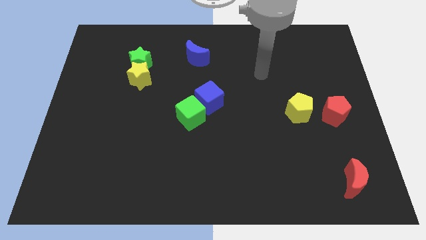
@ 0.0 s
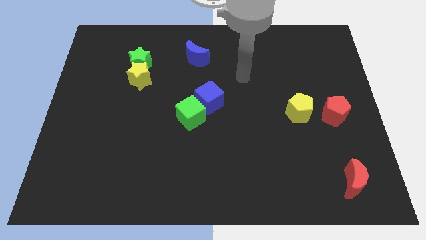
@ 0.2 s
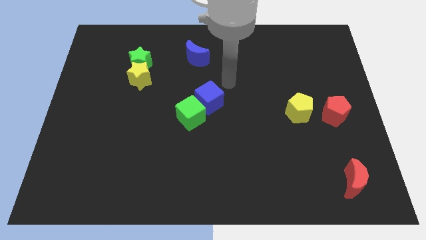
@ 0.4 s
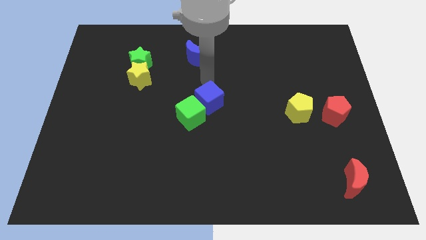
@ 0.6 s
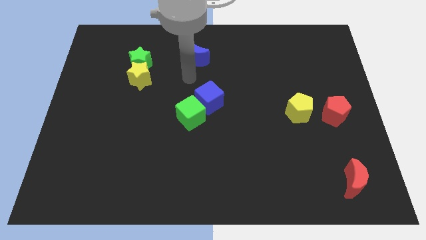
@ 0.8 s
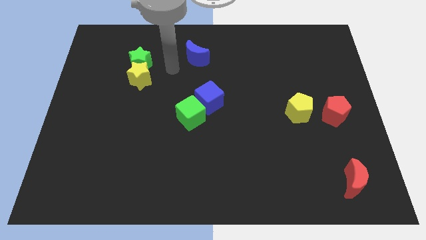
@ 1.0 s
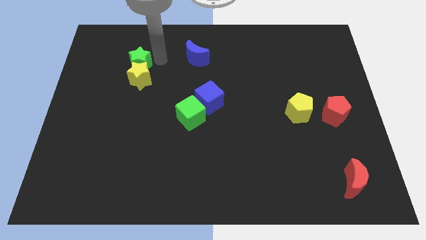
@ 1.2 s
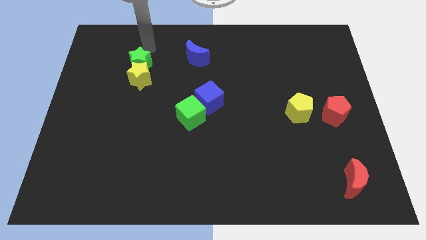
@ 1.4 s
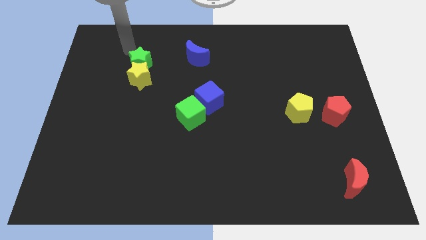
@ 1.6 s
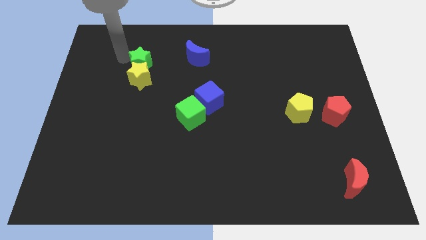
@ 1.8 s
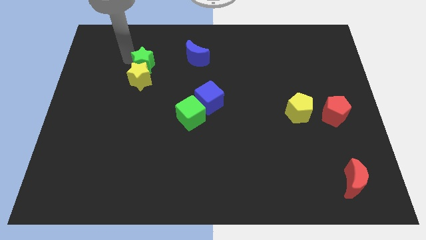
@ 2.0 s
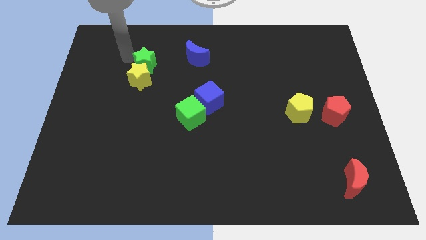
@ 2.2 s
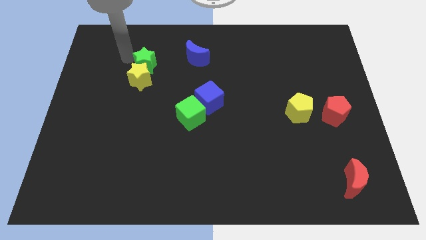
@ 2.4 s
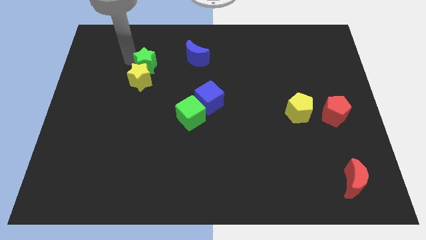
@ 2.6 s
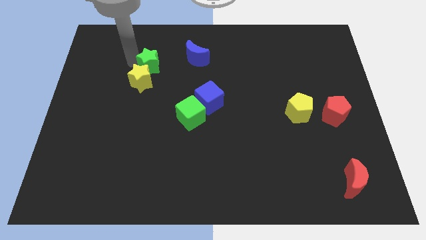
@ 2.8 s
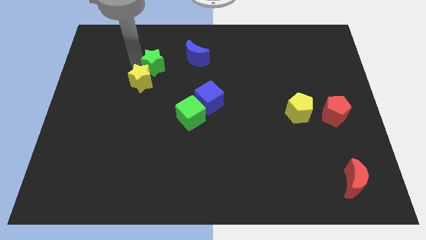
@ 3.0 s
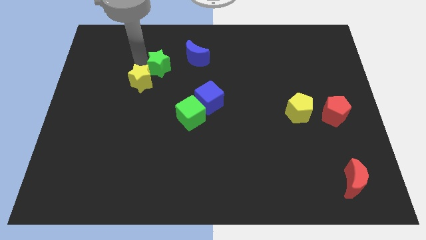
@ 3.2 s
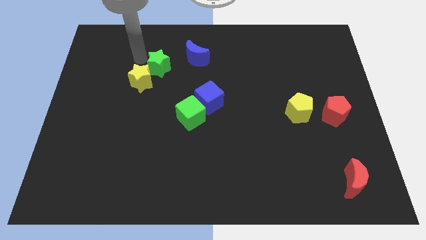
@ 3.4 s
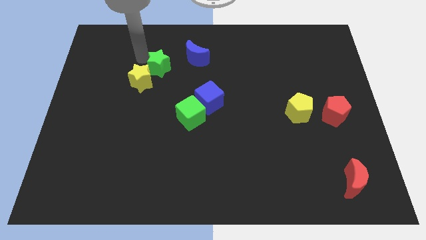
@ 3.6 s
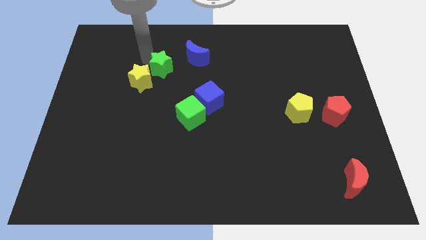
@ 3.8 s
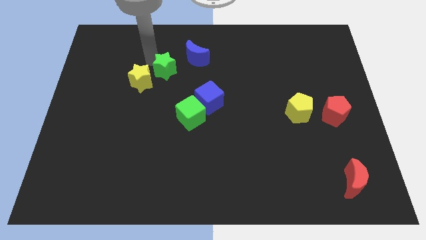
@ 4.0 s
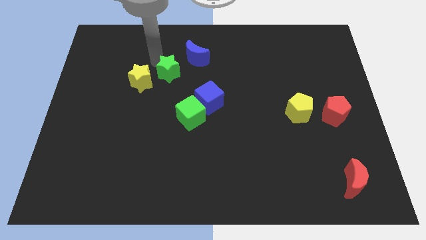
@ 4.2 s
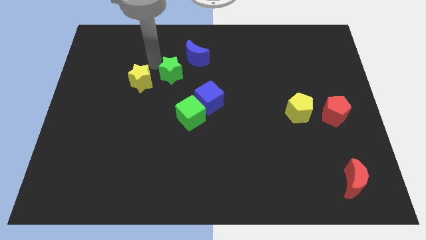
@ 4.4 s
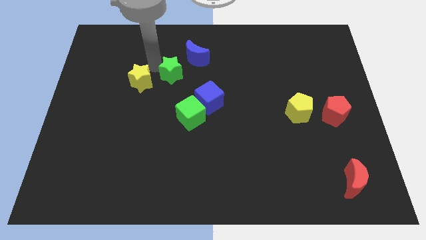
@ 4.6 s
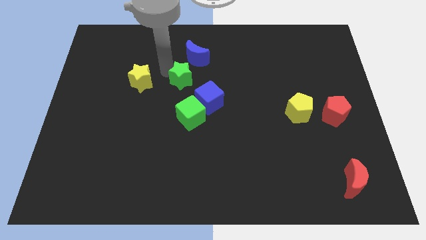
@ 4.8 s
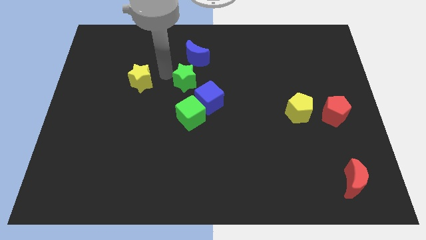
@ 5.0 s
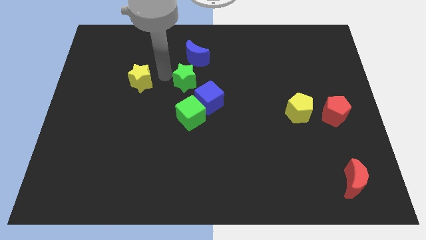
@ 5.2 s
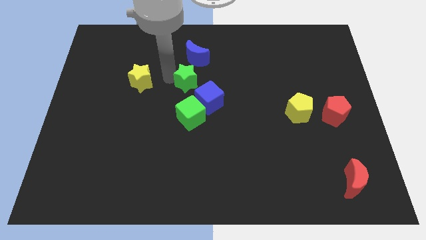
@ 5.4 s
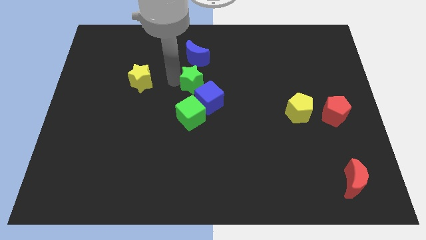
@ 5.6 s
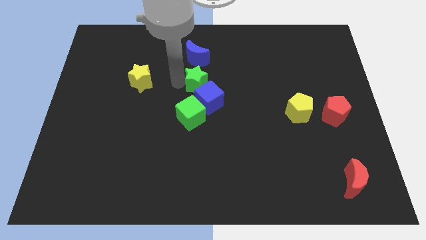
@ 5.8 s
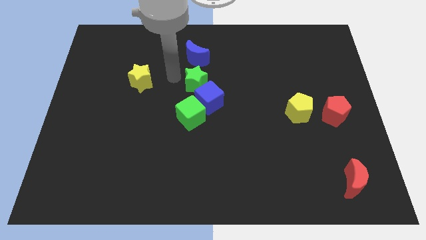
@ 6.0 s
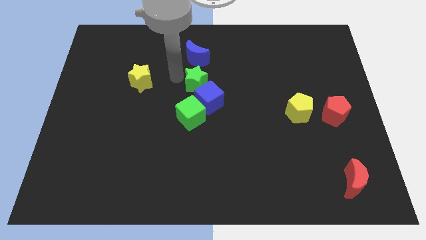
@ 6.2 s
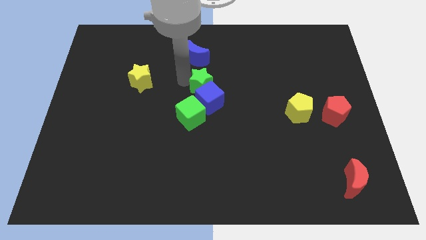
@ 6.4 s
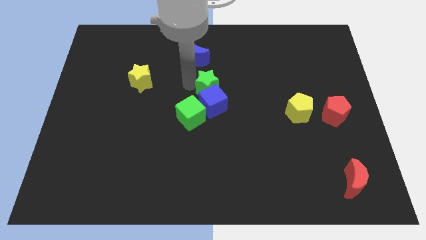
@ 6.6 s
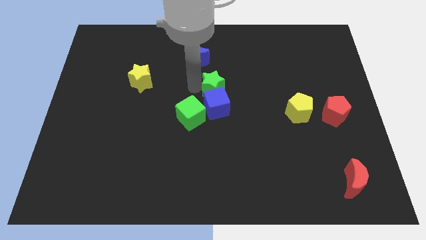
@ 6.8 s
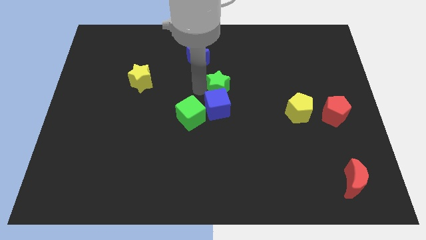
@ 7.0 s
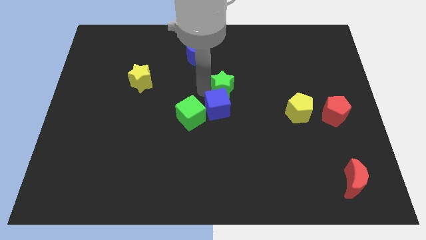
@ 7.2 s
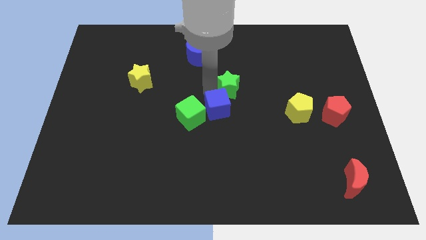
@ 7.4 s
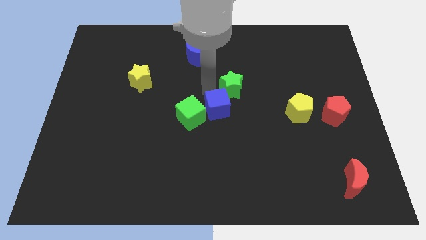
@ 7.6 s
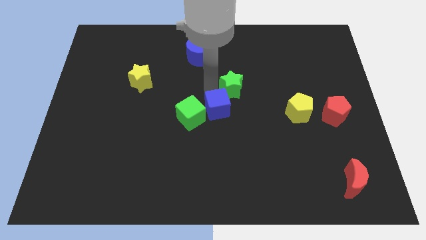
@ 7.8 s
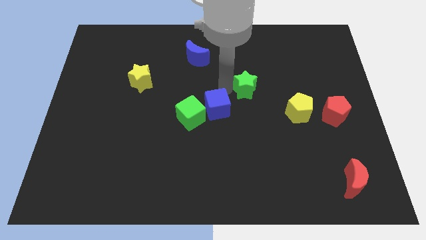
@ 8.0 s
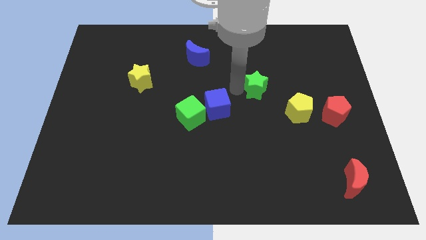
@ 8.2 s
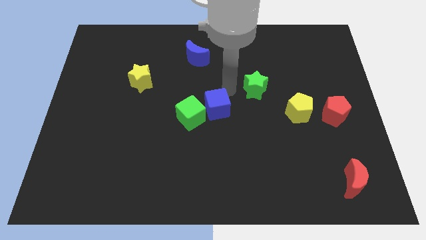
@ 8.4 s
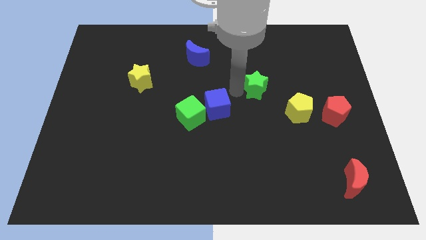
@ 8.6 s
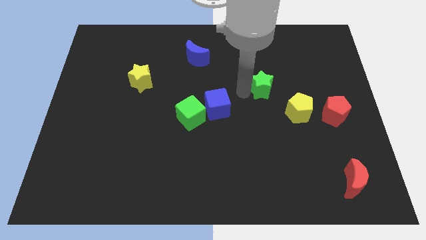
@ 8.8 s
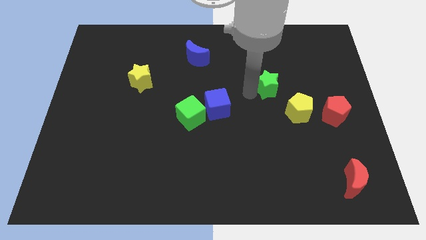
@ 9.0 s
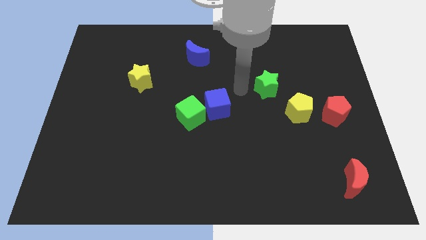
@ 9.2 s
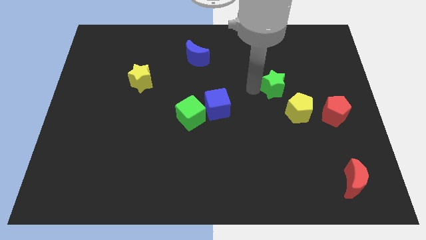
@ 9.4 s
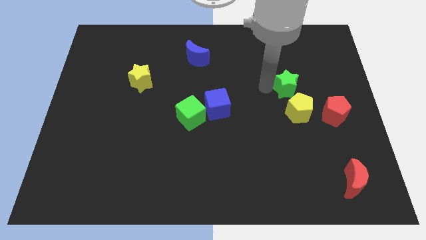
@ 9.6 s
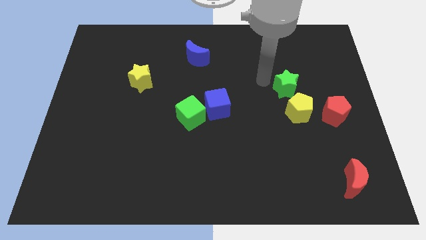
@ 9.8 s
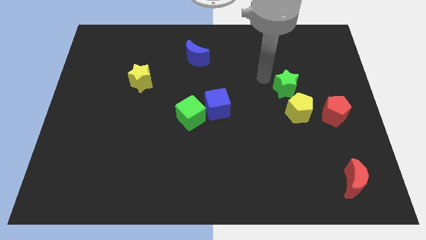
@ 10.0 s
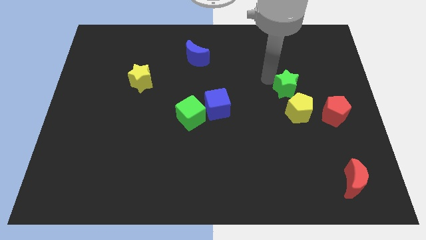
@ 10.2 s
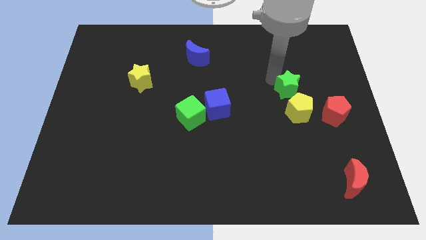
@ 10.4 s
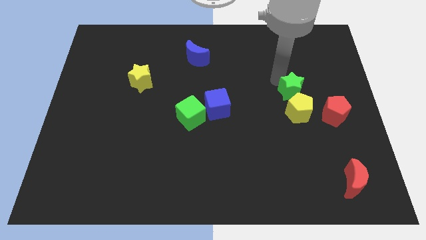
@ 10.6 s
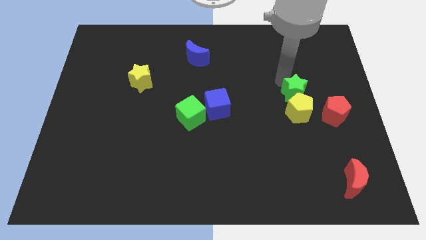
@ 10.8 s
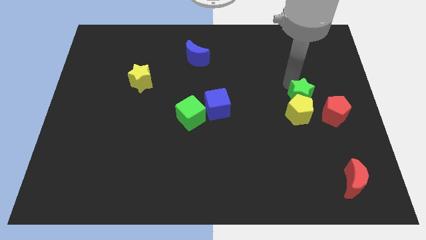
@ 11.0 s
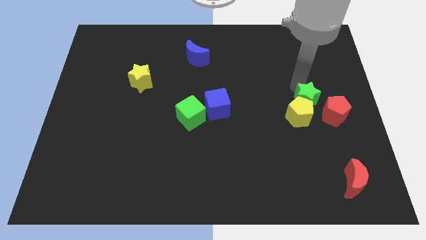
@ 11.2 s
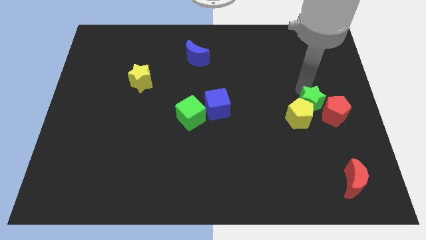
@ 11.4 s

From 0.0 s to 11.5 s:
move the green star close to the red pentagon

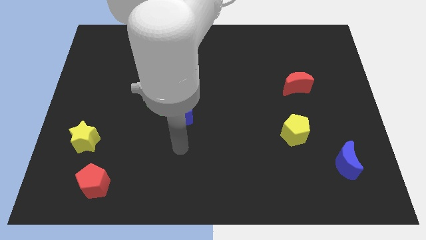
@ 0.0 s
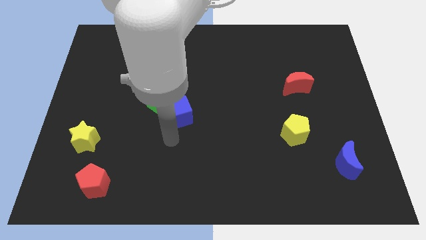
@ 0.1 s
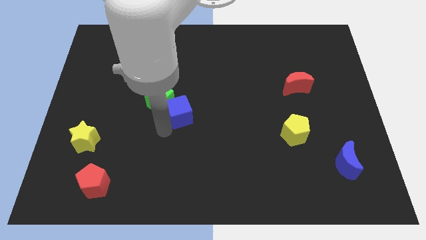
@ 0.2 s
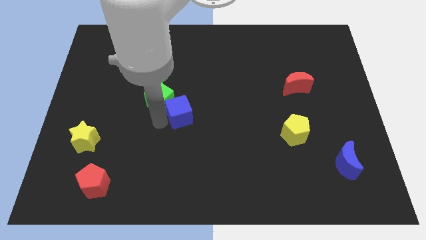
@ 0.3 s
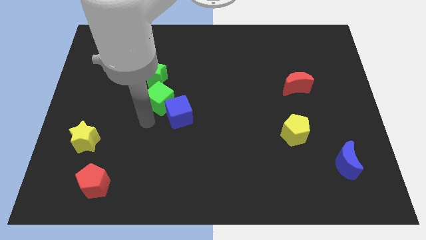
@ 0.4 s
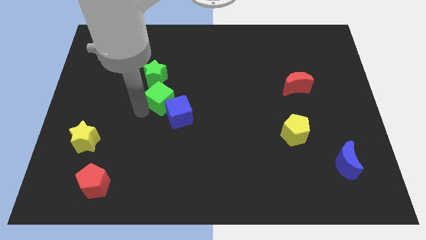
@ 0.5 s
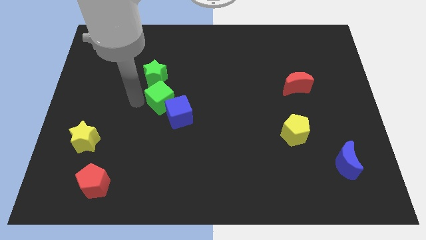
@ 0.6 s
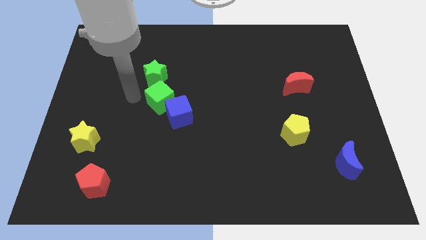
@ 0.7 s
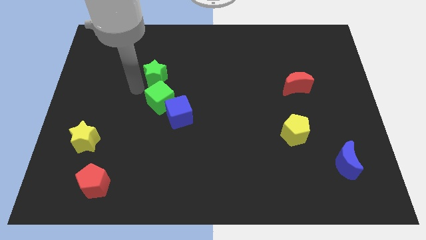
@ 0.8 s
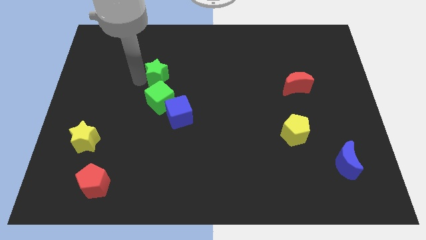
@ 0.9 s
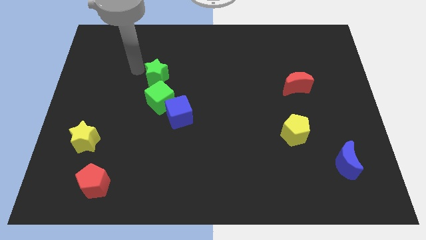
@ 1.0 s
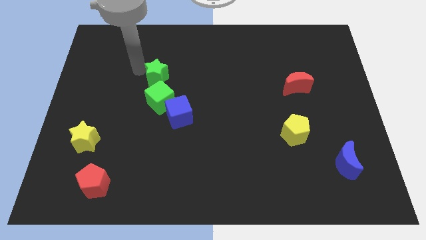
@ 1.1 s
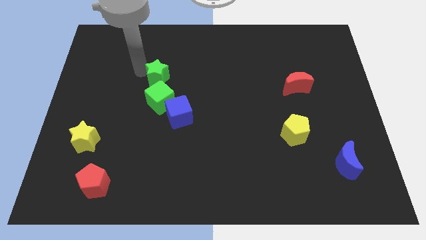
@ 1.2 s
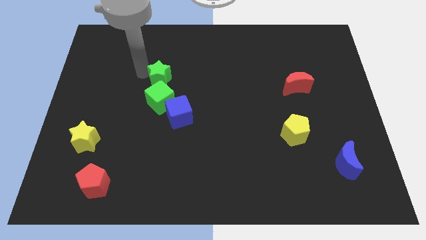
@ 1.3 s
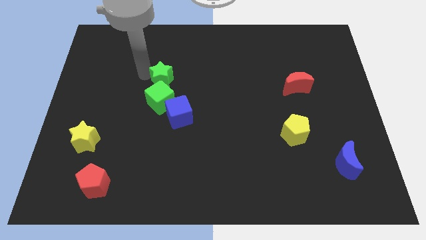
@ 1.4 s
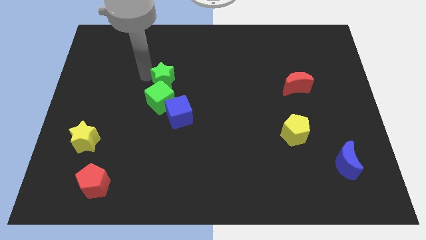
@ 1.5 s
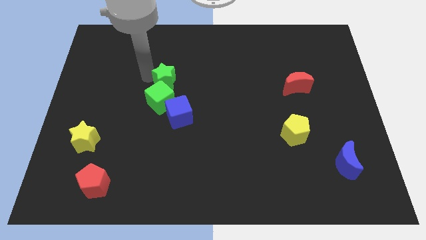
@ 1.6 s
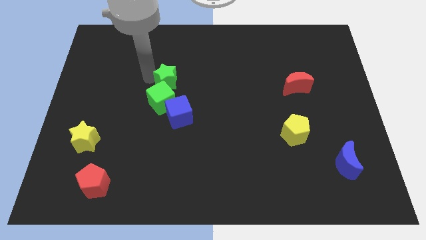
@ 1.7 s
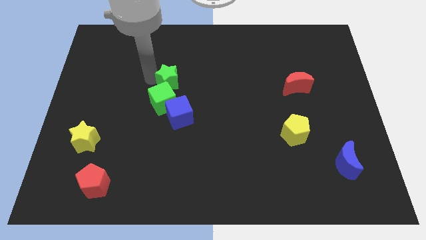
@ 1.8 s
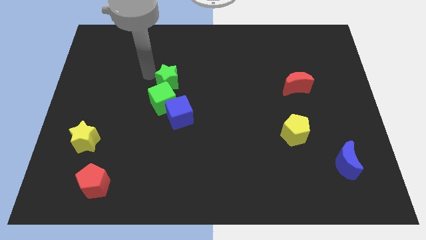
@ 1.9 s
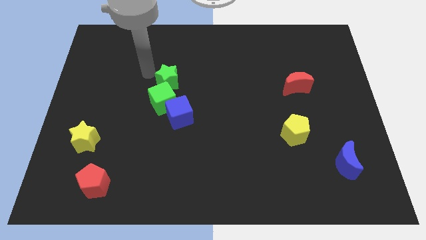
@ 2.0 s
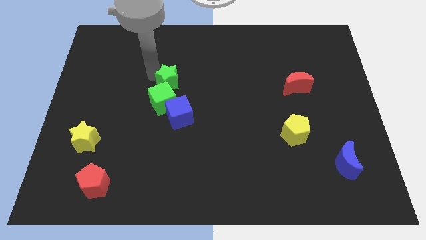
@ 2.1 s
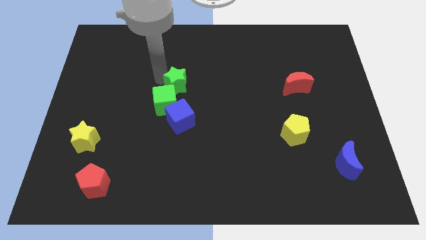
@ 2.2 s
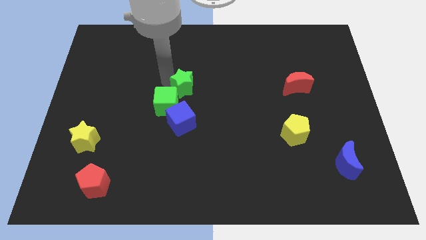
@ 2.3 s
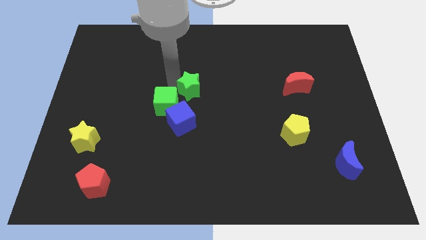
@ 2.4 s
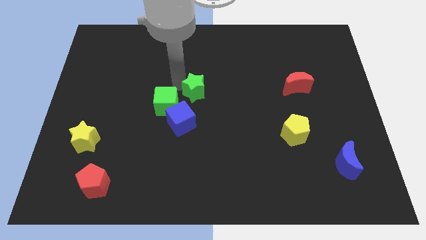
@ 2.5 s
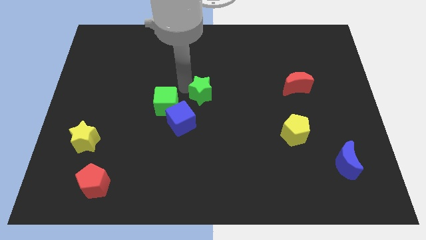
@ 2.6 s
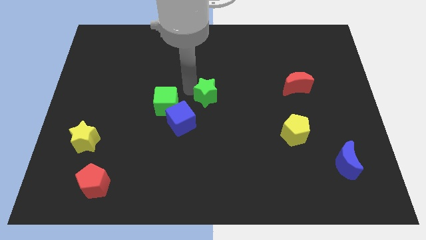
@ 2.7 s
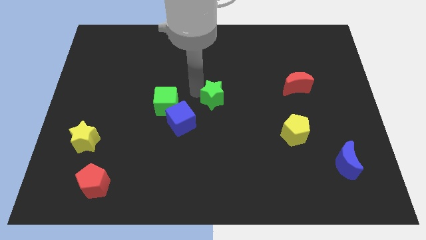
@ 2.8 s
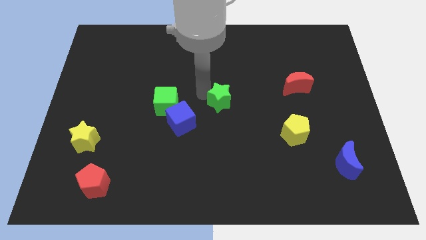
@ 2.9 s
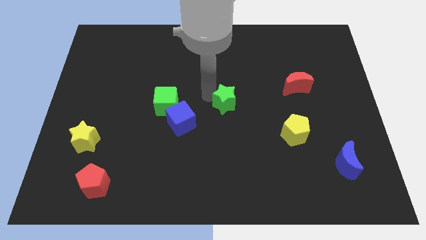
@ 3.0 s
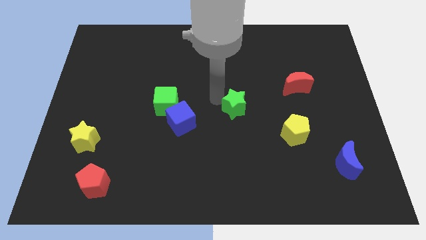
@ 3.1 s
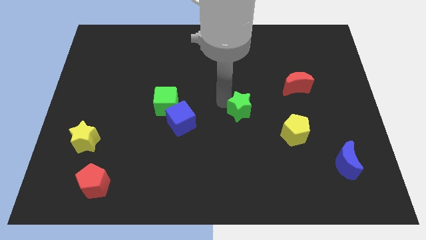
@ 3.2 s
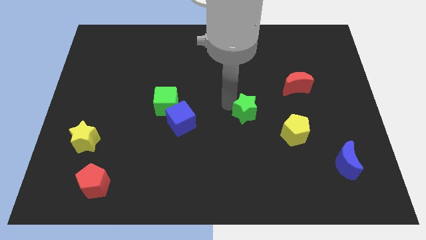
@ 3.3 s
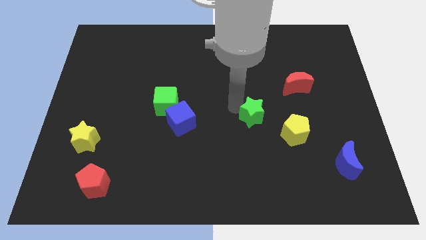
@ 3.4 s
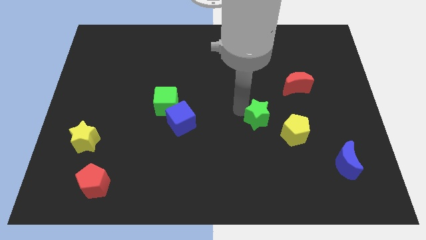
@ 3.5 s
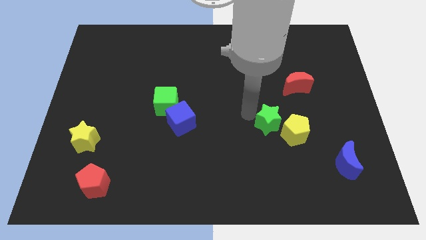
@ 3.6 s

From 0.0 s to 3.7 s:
move the green star close to the yellow pentagon
